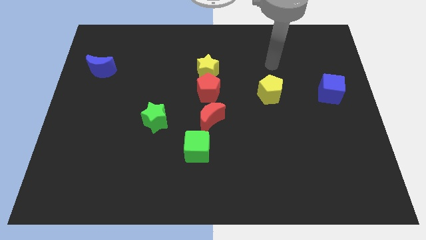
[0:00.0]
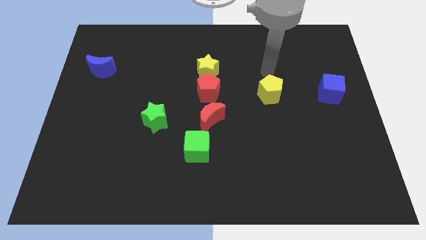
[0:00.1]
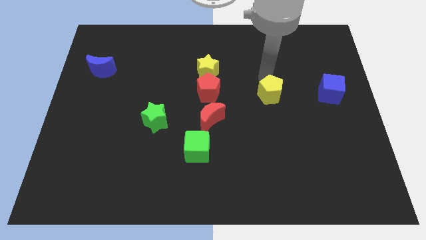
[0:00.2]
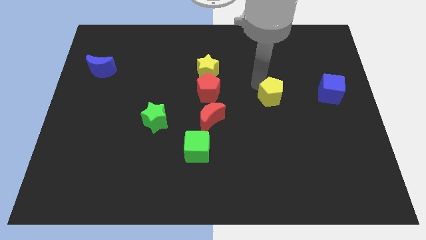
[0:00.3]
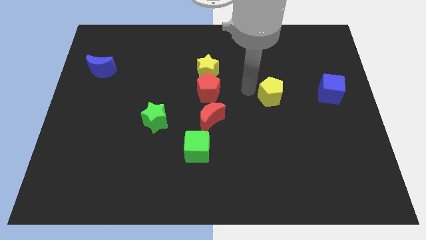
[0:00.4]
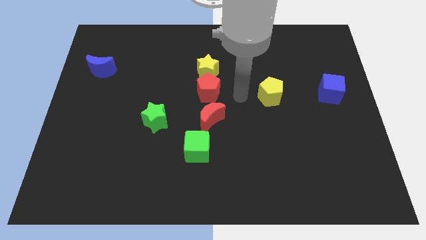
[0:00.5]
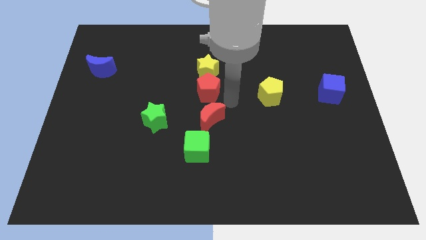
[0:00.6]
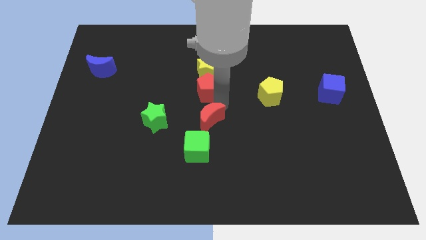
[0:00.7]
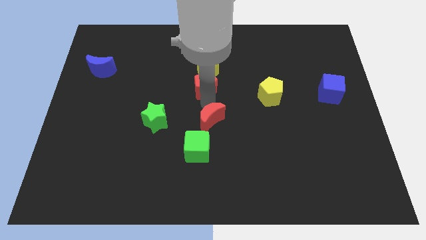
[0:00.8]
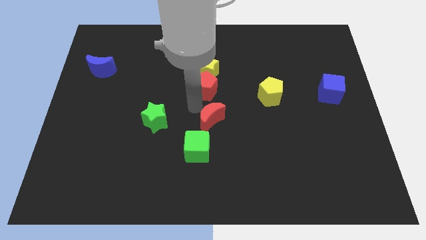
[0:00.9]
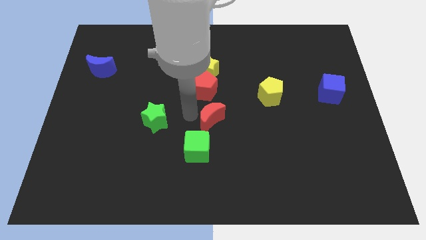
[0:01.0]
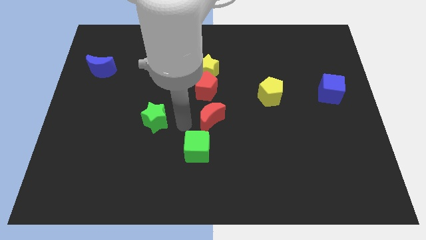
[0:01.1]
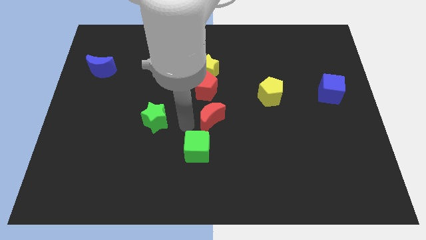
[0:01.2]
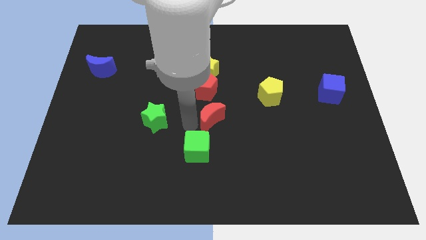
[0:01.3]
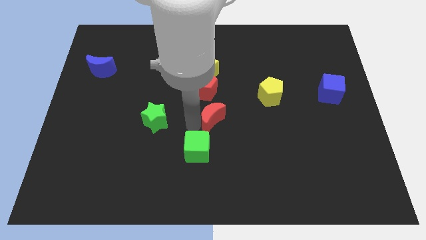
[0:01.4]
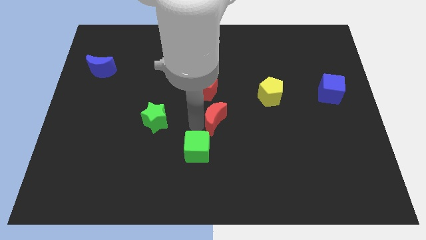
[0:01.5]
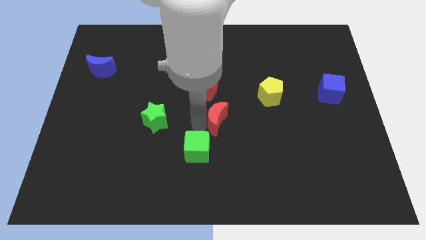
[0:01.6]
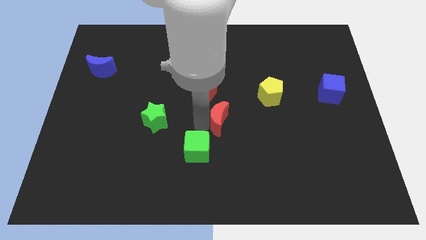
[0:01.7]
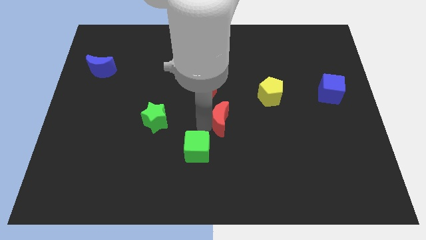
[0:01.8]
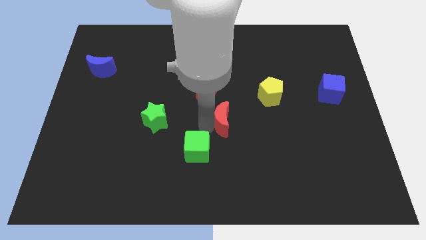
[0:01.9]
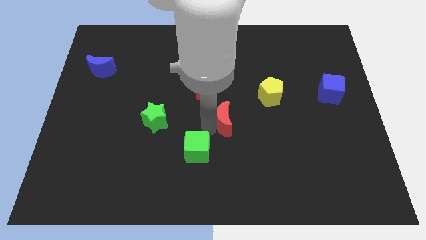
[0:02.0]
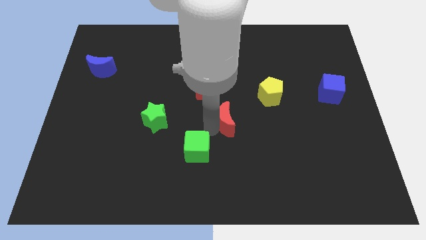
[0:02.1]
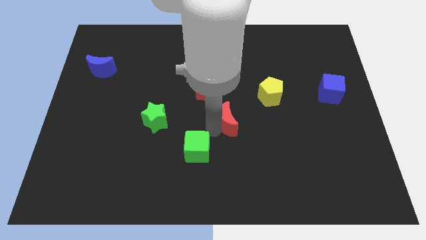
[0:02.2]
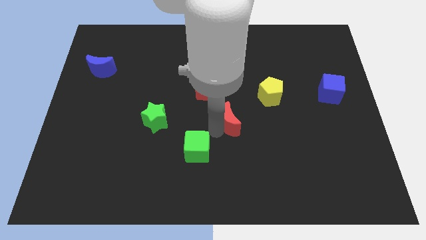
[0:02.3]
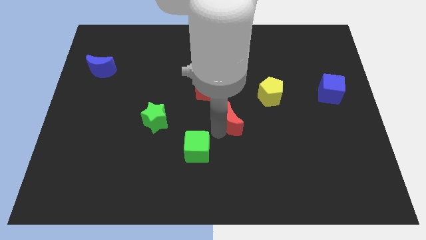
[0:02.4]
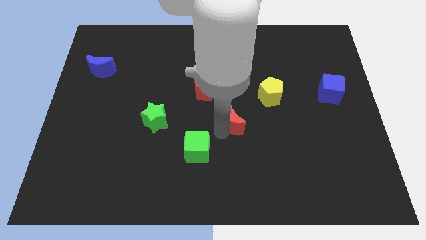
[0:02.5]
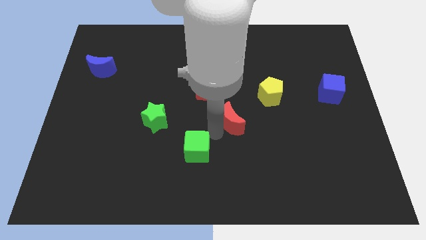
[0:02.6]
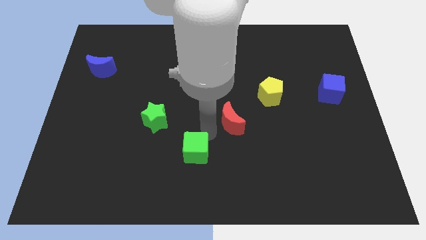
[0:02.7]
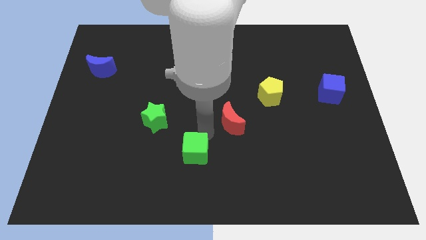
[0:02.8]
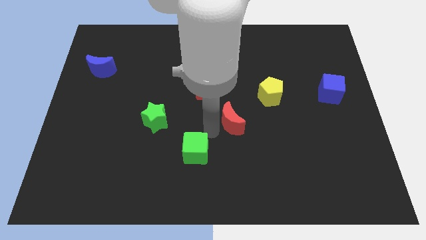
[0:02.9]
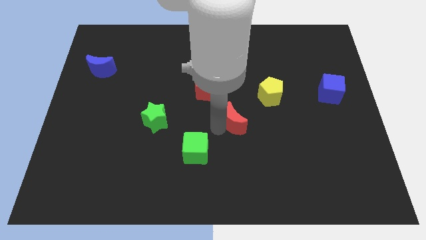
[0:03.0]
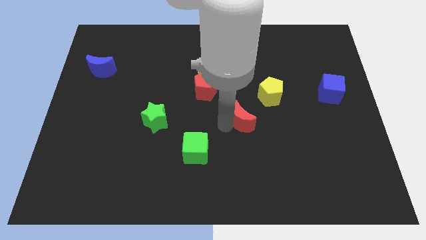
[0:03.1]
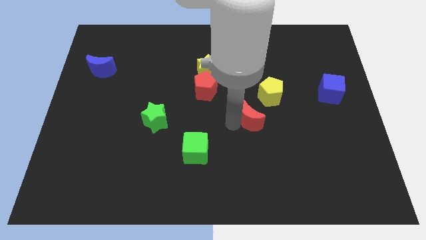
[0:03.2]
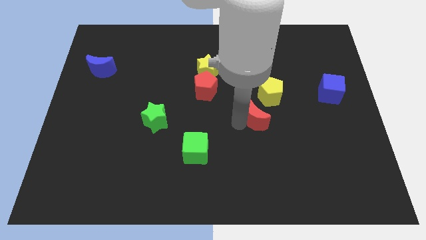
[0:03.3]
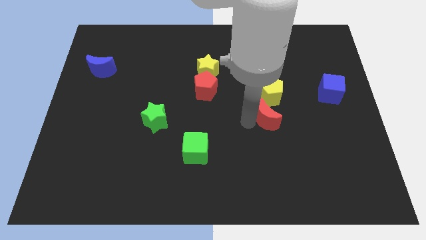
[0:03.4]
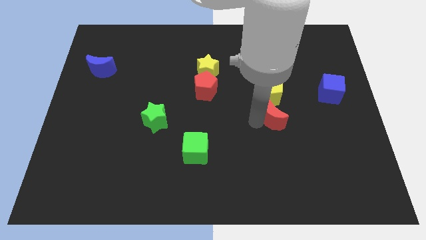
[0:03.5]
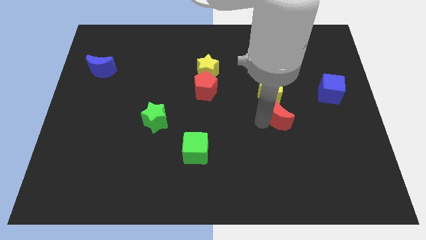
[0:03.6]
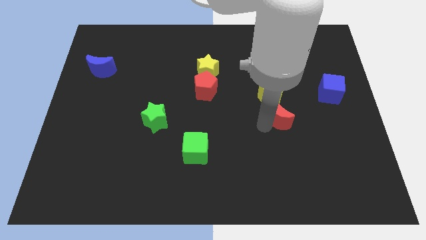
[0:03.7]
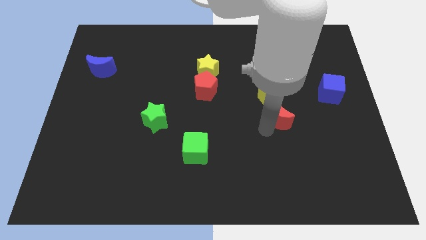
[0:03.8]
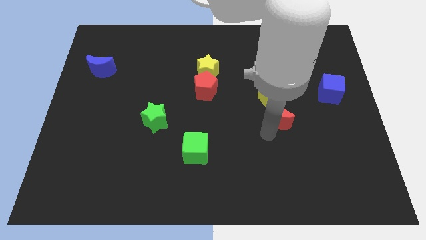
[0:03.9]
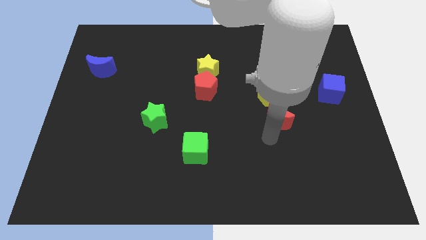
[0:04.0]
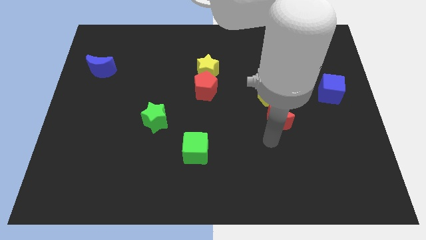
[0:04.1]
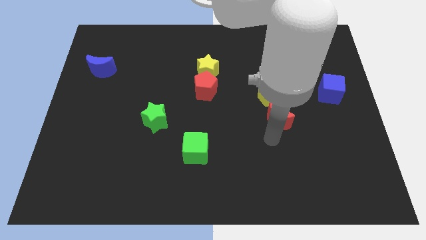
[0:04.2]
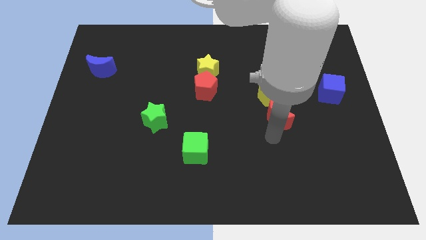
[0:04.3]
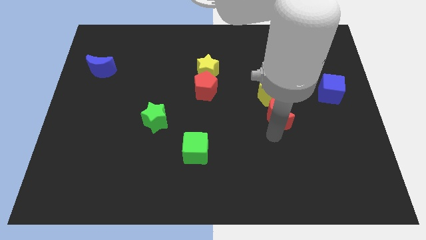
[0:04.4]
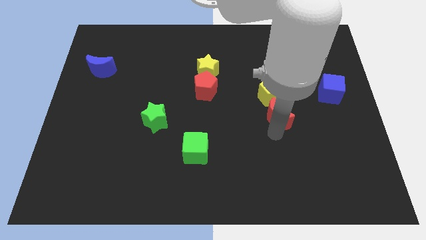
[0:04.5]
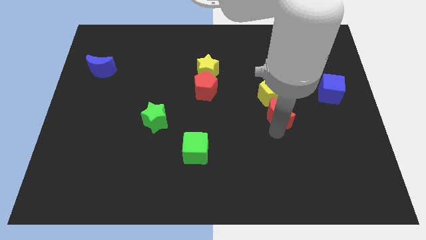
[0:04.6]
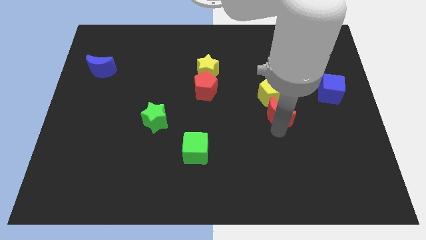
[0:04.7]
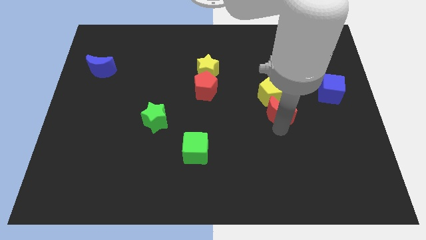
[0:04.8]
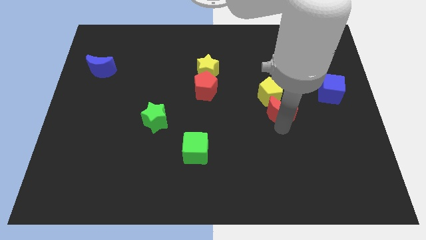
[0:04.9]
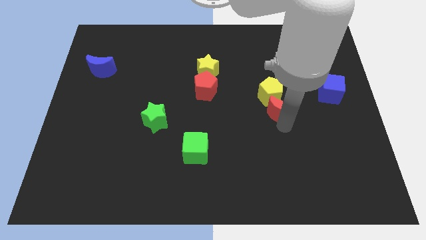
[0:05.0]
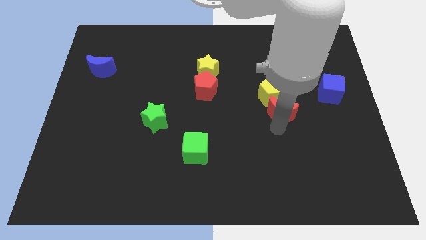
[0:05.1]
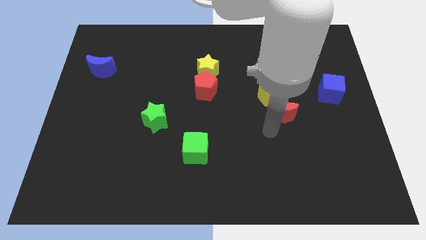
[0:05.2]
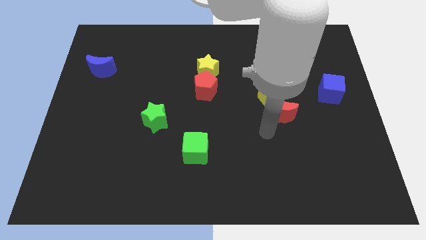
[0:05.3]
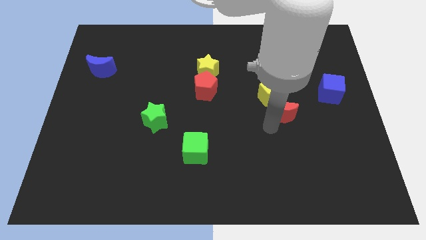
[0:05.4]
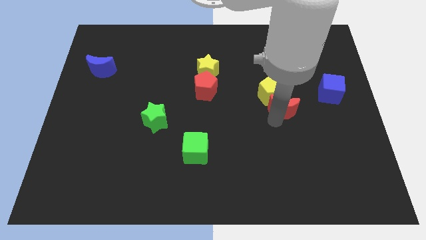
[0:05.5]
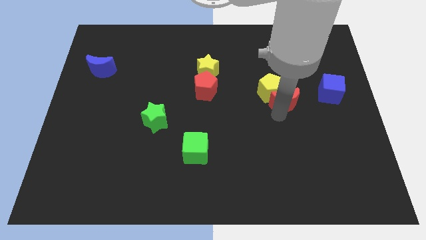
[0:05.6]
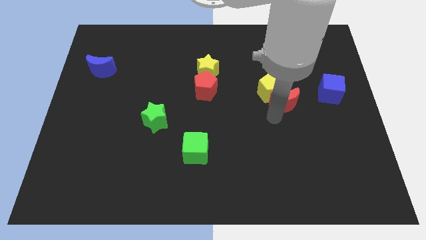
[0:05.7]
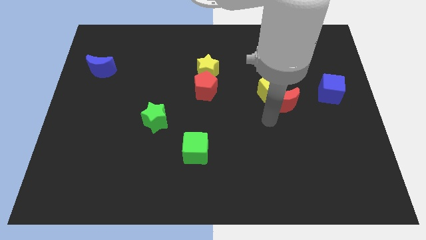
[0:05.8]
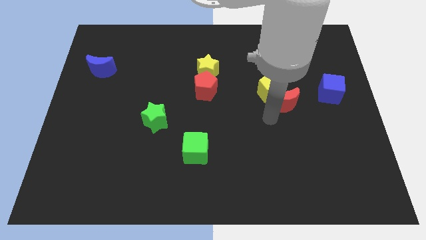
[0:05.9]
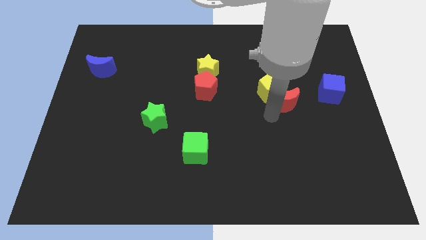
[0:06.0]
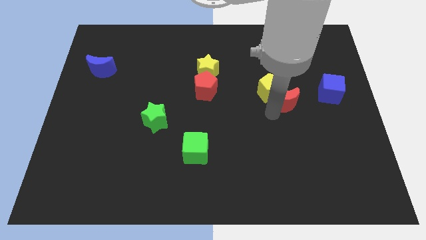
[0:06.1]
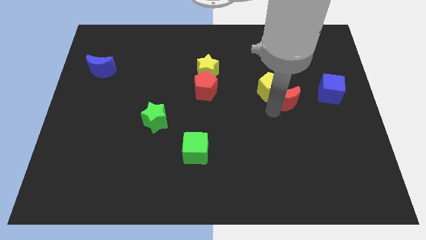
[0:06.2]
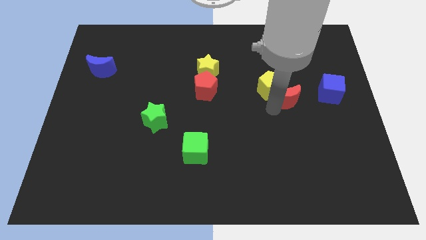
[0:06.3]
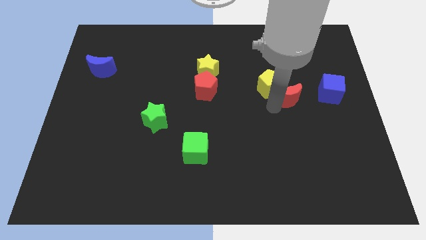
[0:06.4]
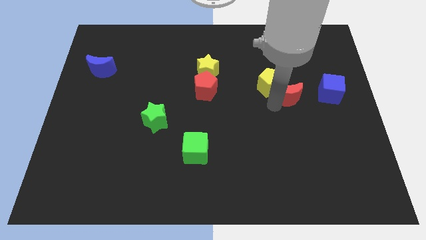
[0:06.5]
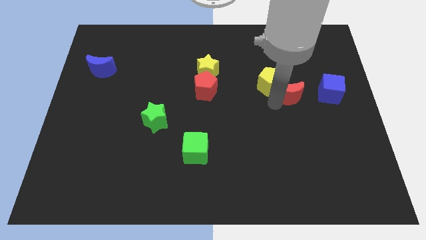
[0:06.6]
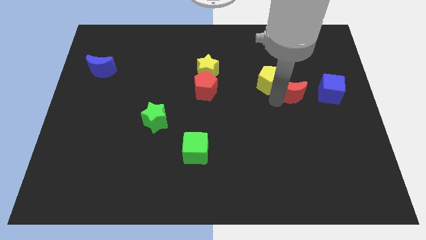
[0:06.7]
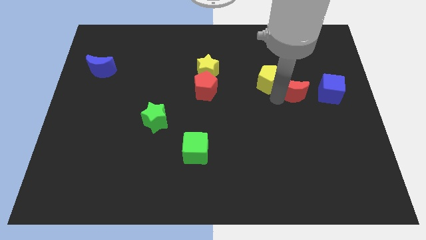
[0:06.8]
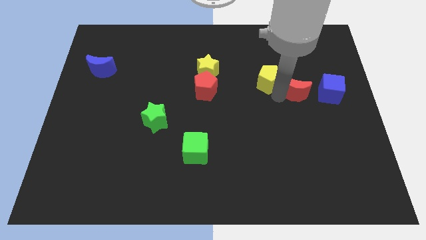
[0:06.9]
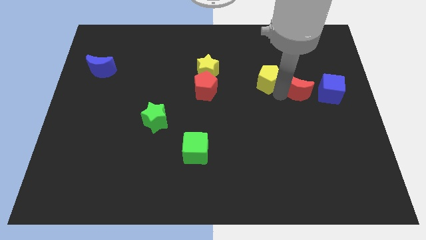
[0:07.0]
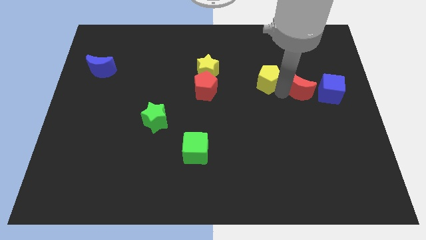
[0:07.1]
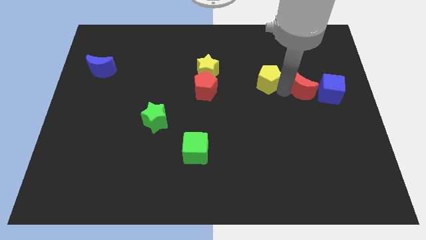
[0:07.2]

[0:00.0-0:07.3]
push the red moon diagonally up and to the left of the blue cube
